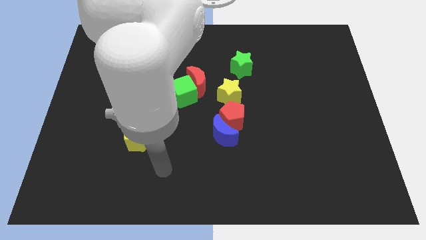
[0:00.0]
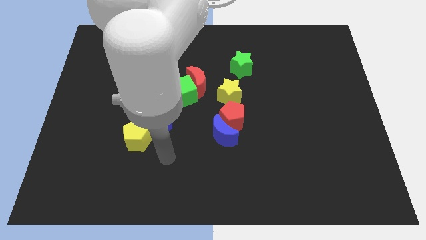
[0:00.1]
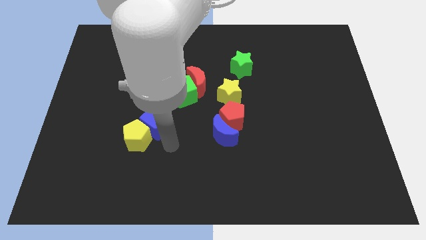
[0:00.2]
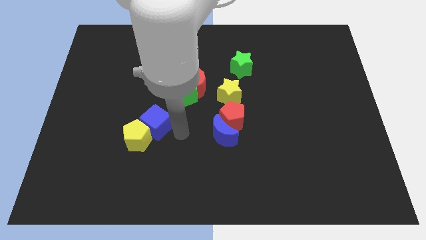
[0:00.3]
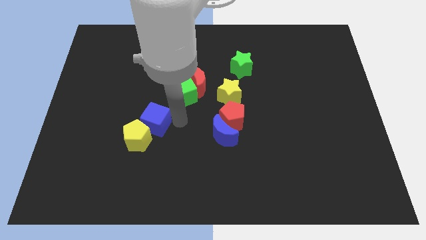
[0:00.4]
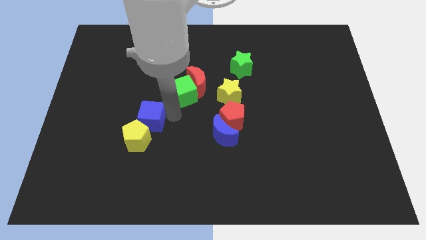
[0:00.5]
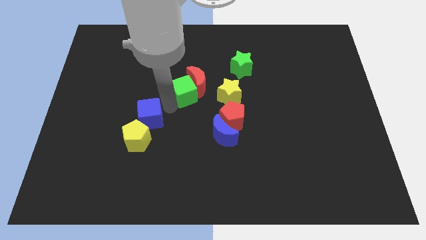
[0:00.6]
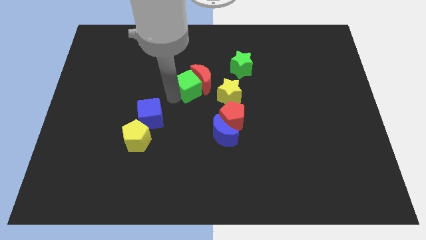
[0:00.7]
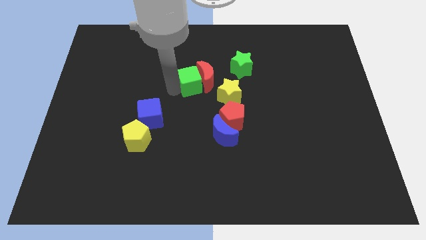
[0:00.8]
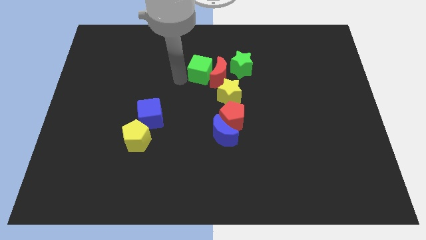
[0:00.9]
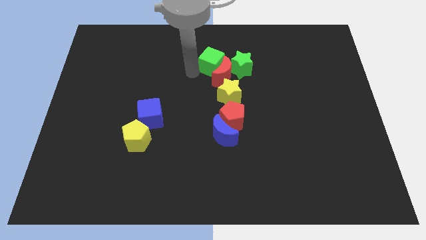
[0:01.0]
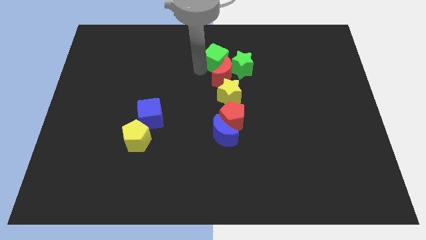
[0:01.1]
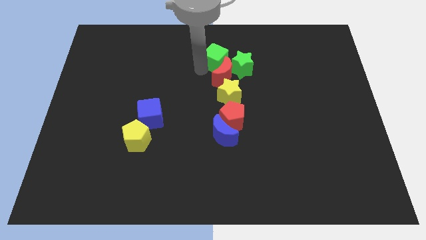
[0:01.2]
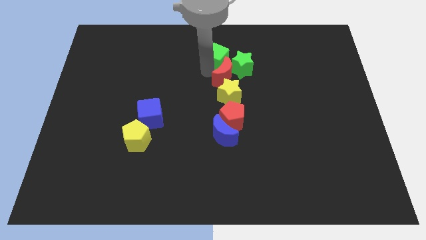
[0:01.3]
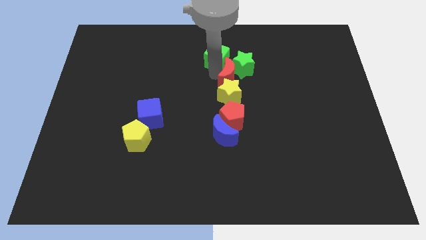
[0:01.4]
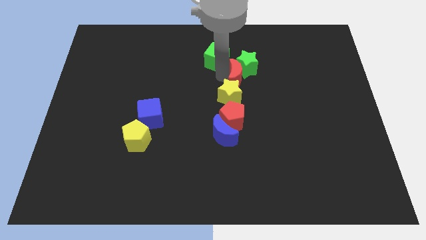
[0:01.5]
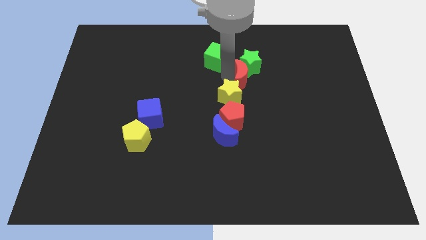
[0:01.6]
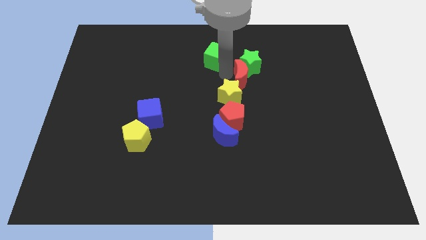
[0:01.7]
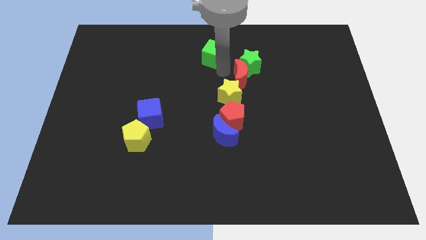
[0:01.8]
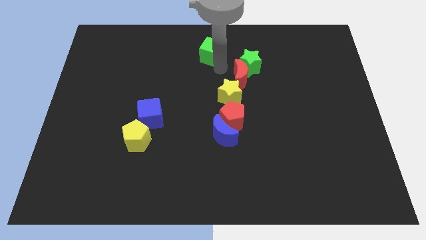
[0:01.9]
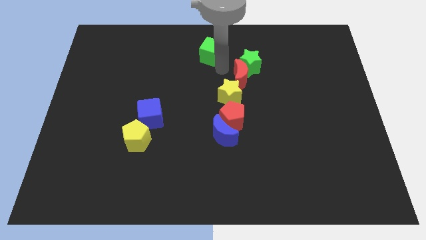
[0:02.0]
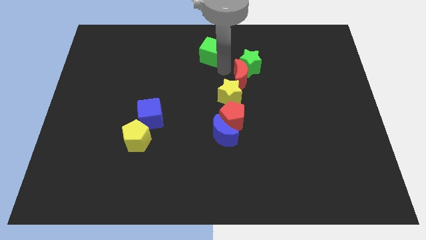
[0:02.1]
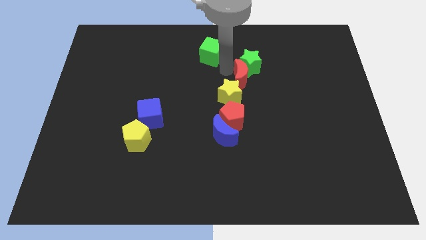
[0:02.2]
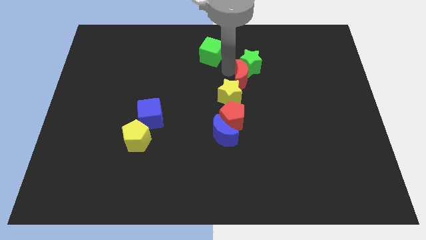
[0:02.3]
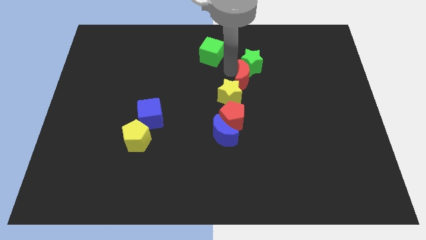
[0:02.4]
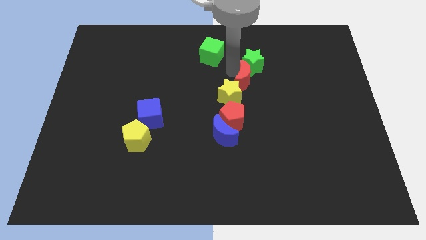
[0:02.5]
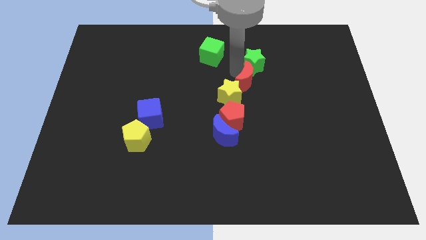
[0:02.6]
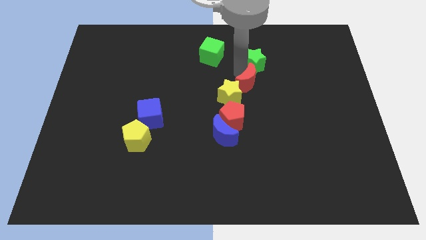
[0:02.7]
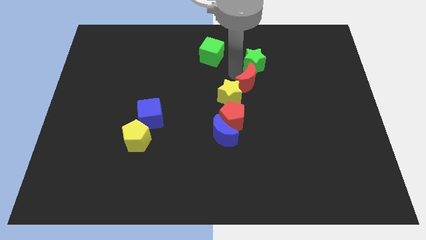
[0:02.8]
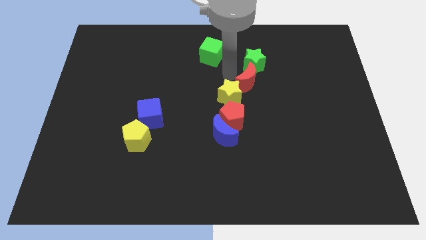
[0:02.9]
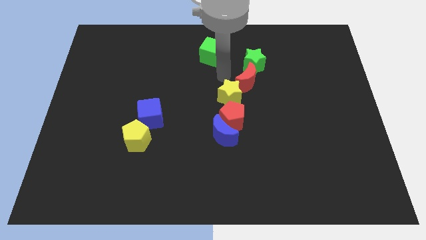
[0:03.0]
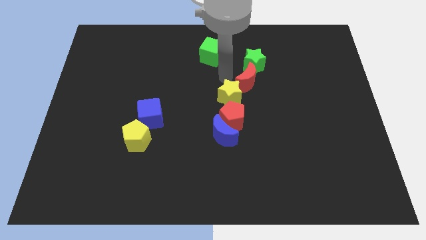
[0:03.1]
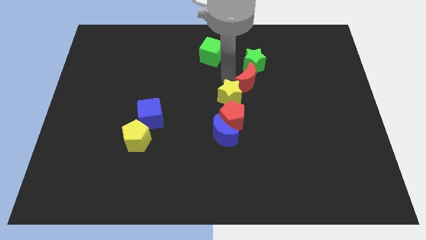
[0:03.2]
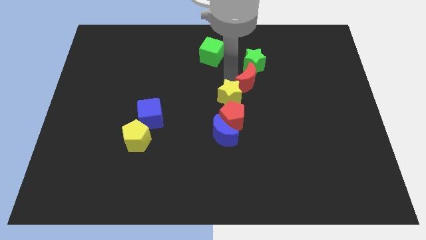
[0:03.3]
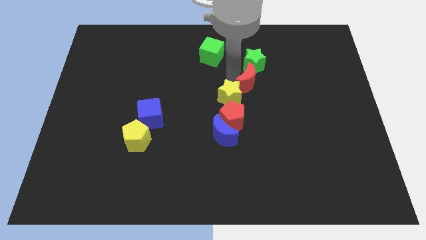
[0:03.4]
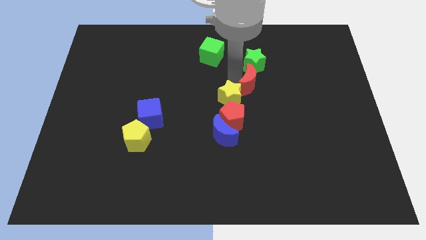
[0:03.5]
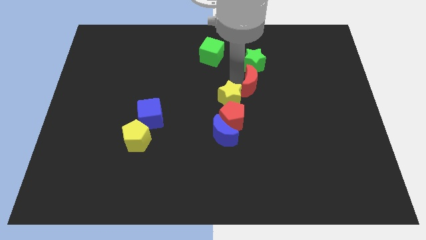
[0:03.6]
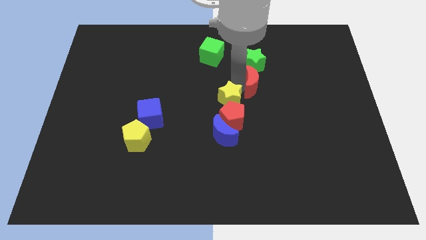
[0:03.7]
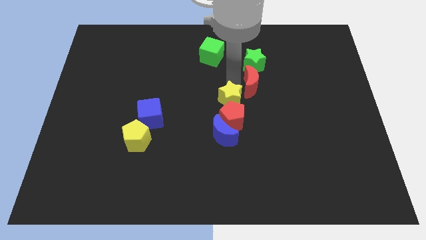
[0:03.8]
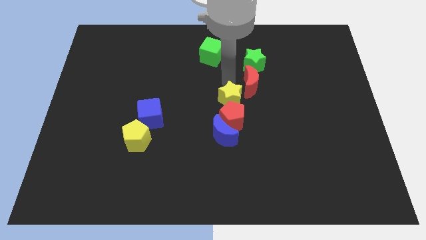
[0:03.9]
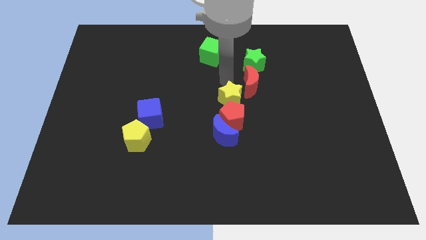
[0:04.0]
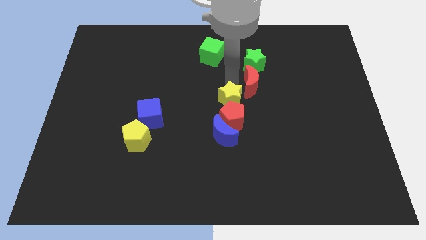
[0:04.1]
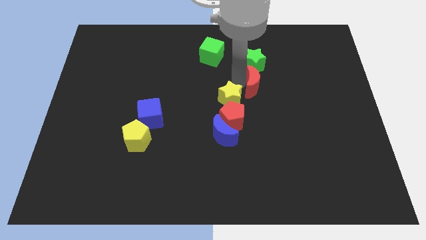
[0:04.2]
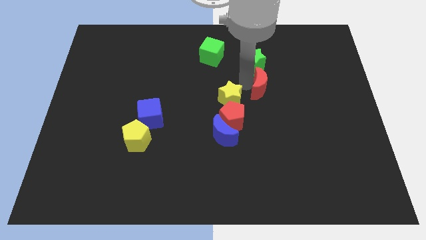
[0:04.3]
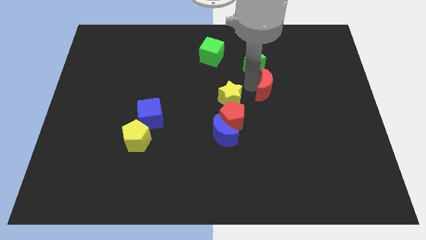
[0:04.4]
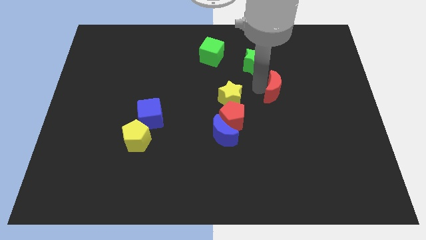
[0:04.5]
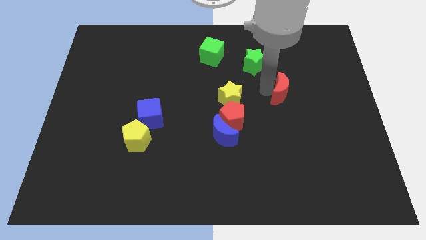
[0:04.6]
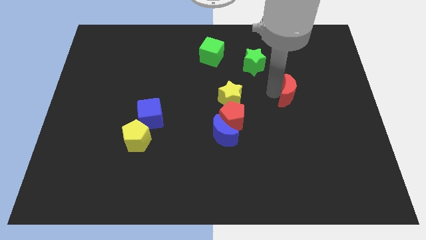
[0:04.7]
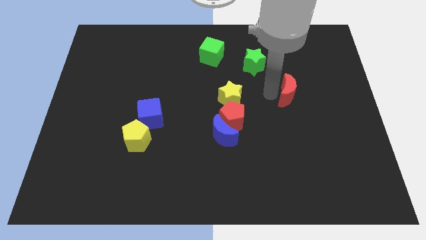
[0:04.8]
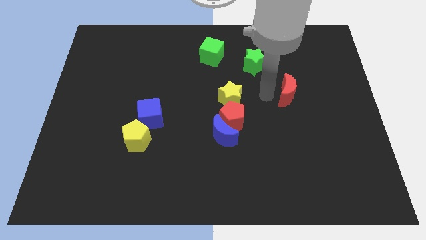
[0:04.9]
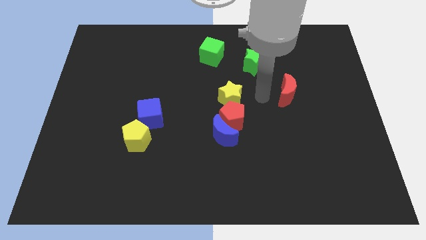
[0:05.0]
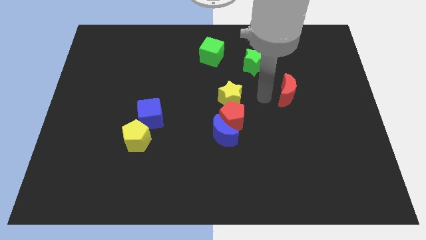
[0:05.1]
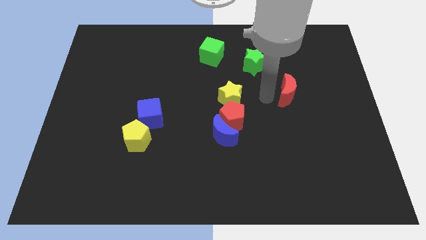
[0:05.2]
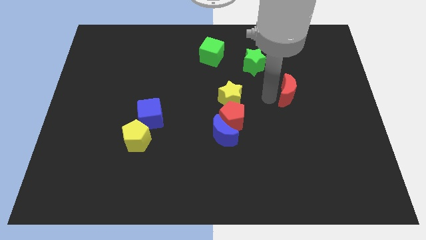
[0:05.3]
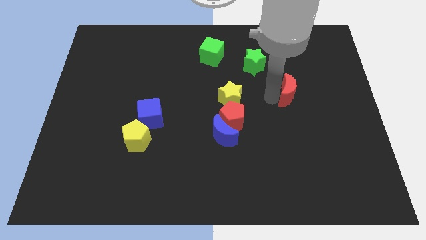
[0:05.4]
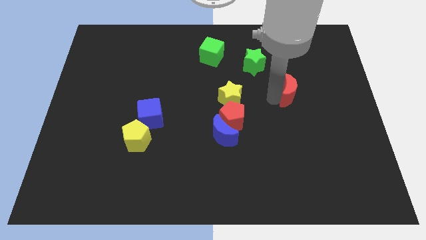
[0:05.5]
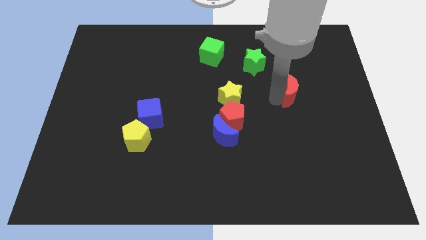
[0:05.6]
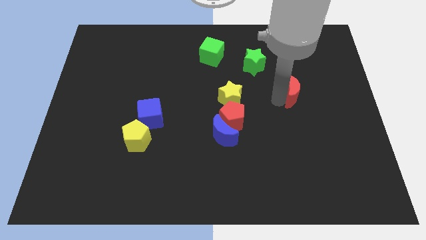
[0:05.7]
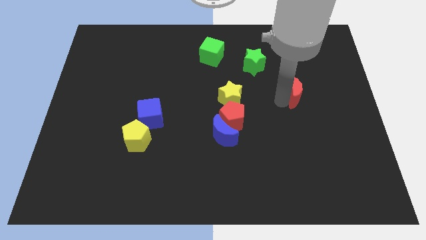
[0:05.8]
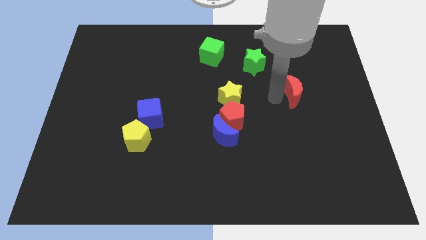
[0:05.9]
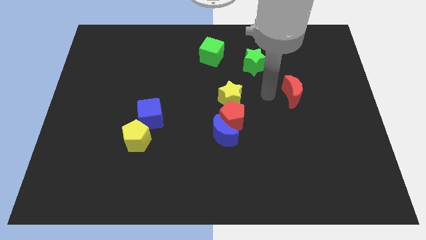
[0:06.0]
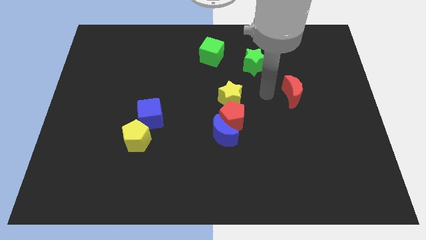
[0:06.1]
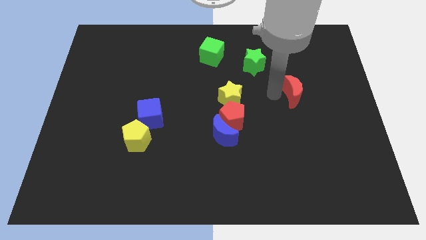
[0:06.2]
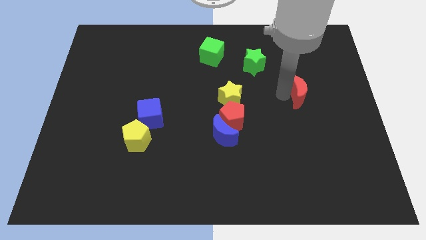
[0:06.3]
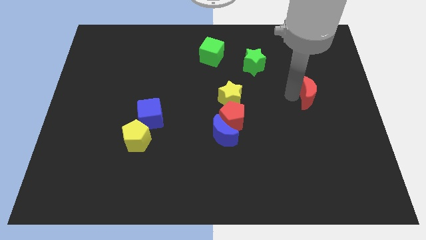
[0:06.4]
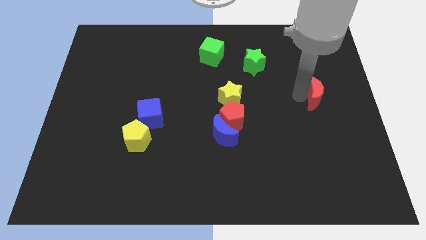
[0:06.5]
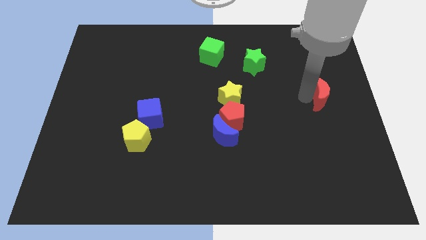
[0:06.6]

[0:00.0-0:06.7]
move the red moon to the right side of the board
